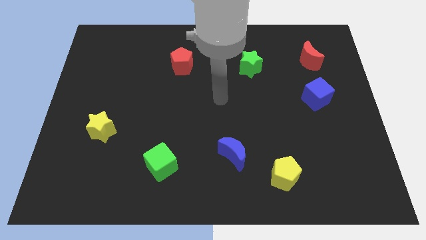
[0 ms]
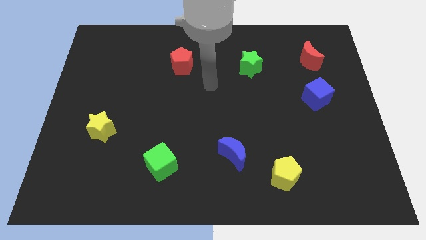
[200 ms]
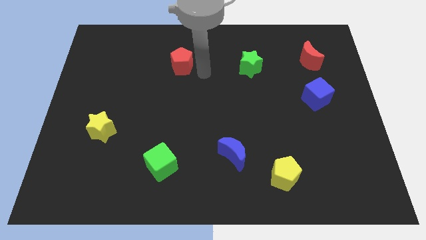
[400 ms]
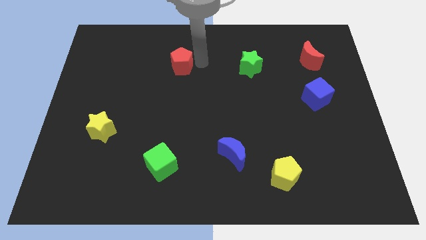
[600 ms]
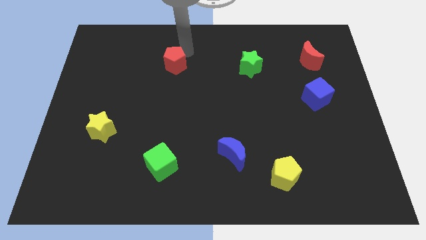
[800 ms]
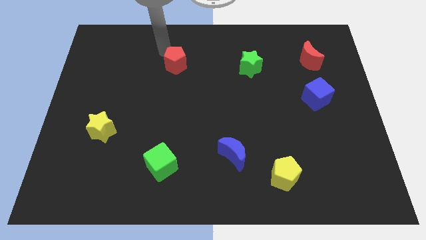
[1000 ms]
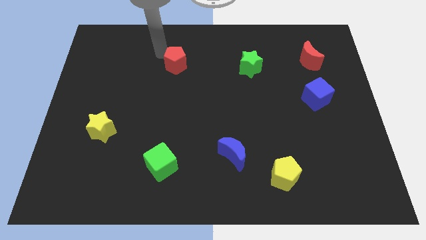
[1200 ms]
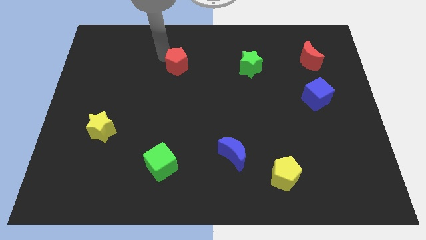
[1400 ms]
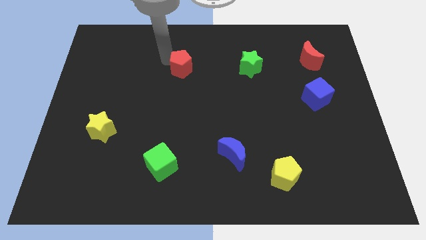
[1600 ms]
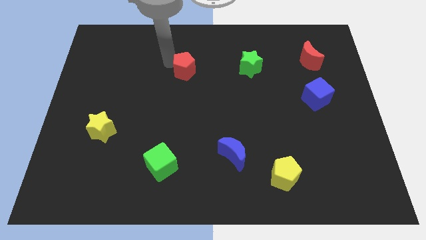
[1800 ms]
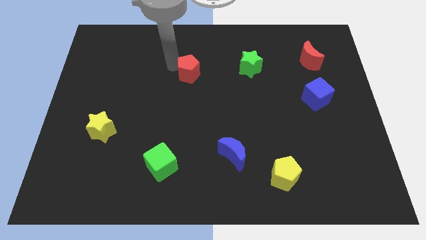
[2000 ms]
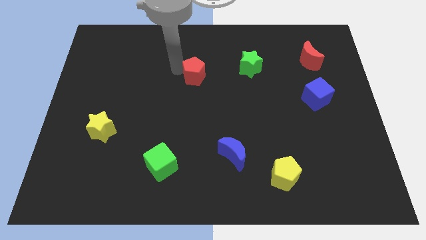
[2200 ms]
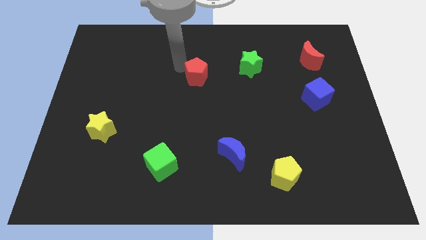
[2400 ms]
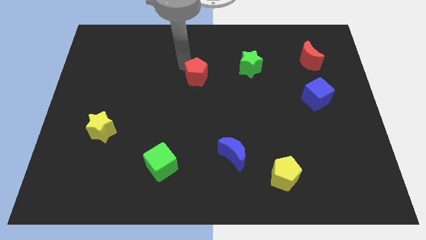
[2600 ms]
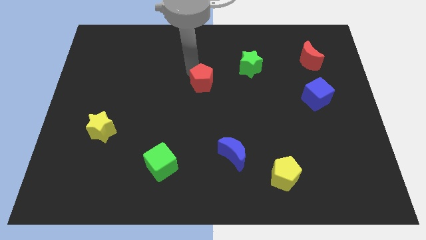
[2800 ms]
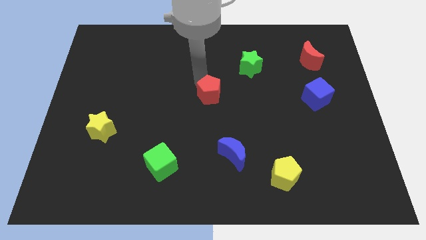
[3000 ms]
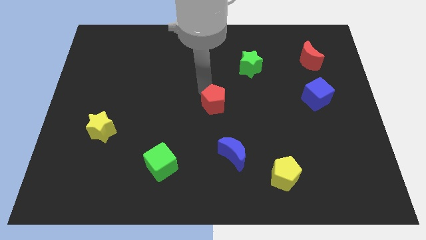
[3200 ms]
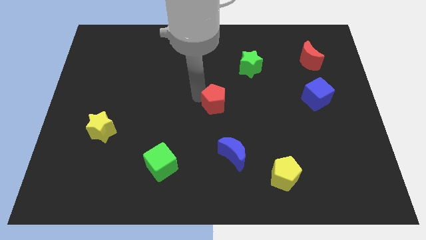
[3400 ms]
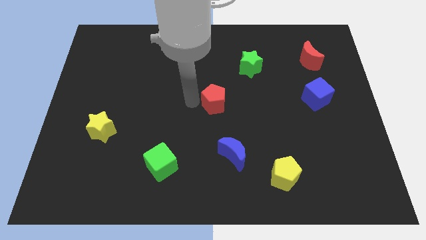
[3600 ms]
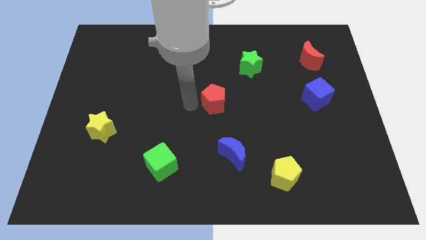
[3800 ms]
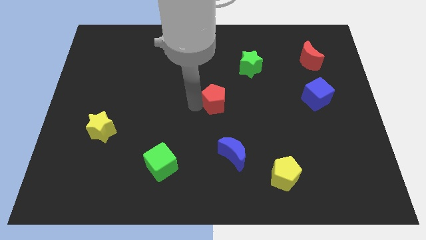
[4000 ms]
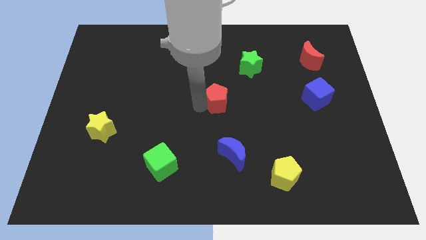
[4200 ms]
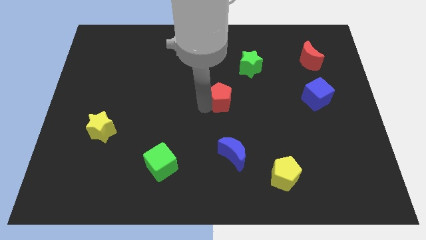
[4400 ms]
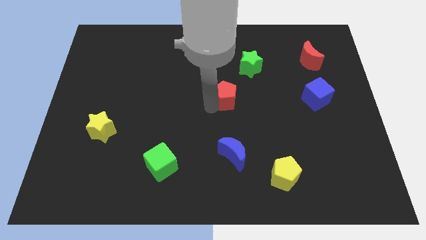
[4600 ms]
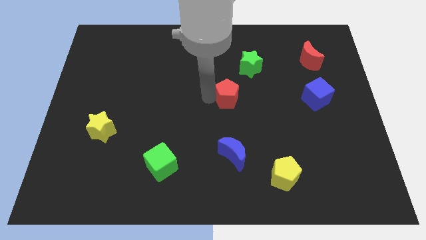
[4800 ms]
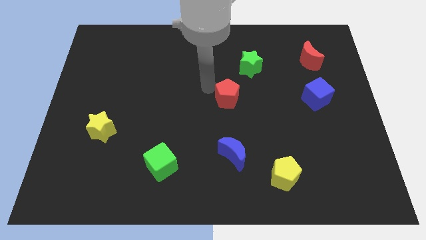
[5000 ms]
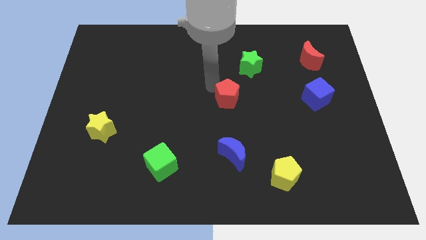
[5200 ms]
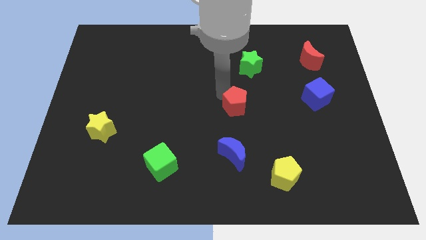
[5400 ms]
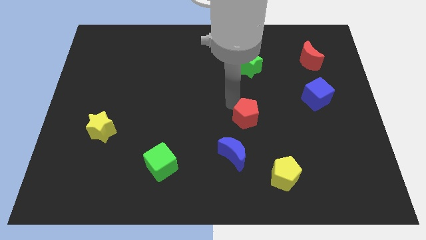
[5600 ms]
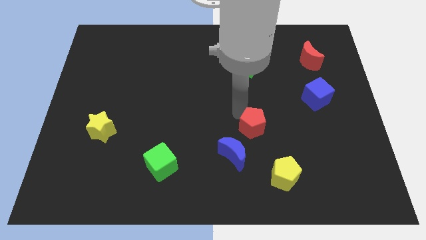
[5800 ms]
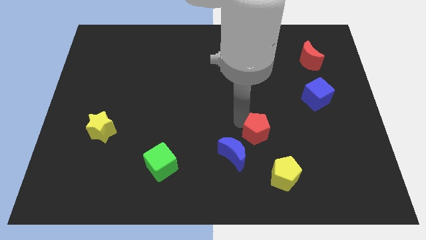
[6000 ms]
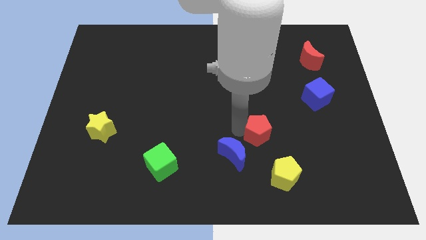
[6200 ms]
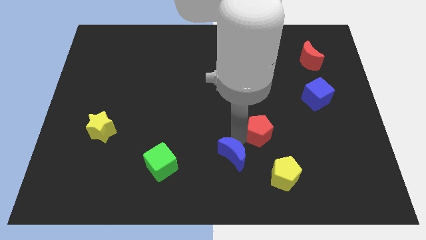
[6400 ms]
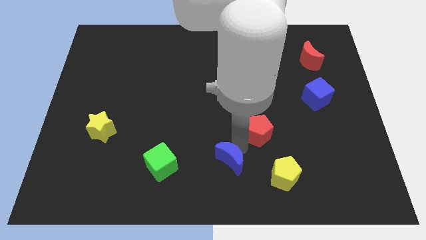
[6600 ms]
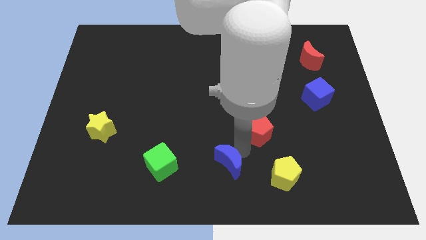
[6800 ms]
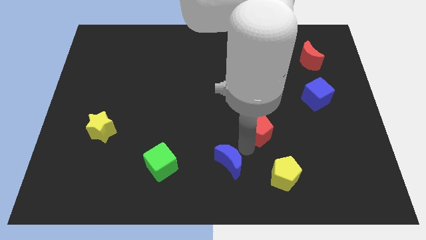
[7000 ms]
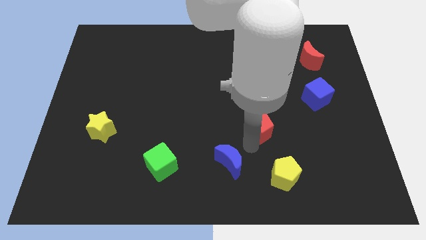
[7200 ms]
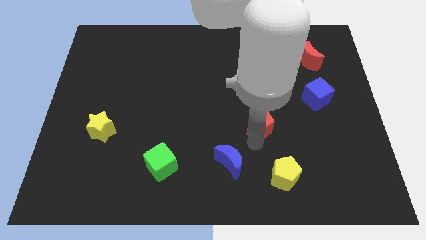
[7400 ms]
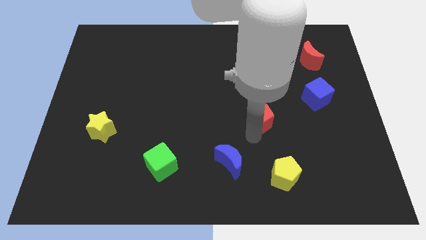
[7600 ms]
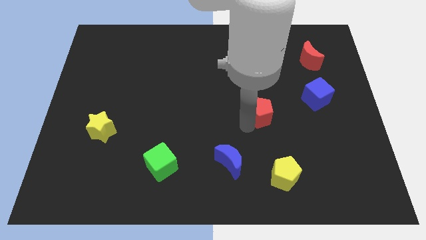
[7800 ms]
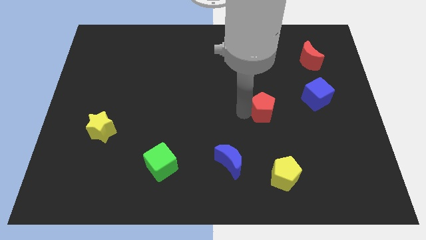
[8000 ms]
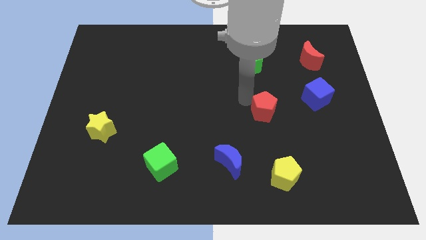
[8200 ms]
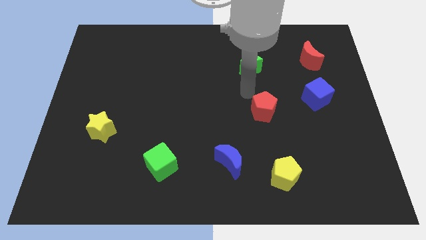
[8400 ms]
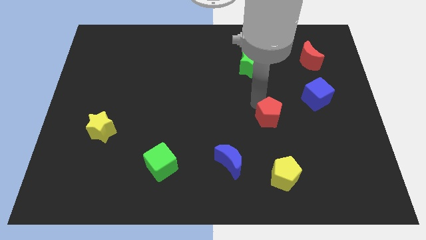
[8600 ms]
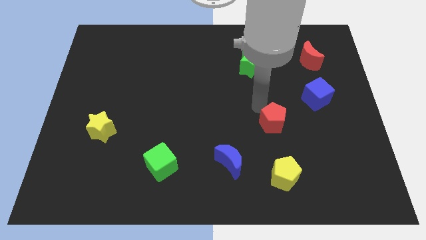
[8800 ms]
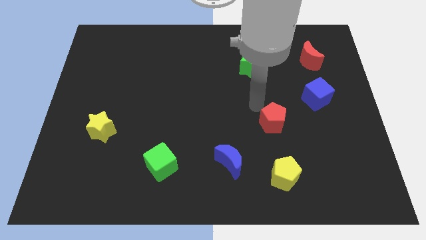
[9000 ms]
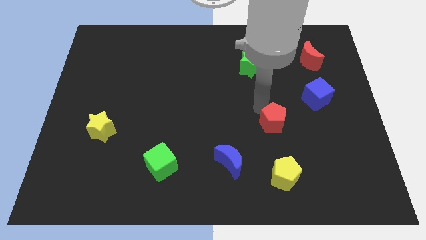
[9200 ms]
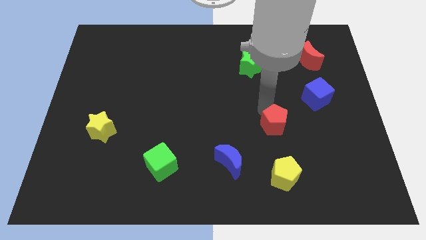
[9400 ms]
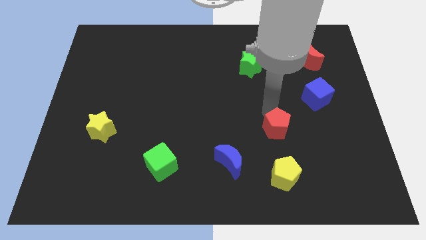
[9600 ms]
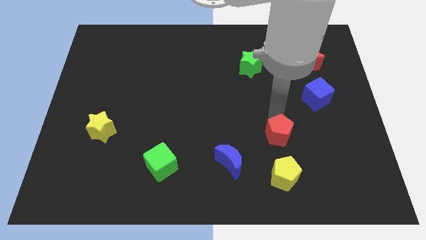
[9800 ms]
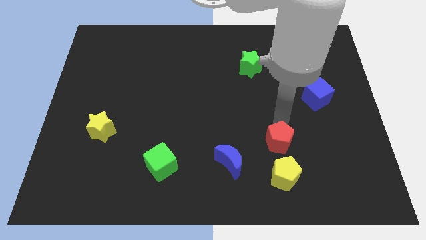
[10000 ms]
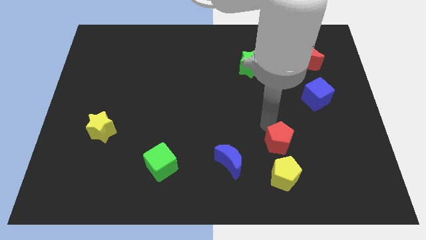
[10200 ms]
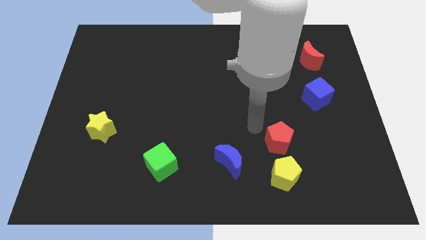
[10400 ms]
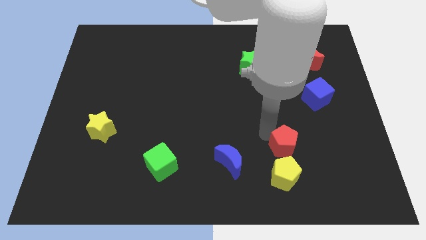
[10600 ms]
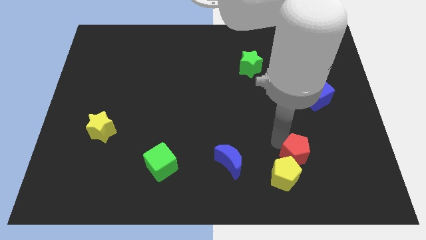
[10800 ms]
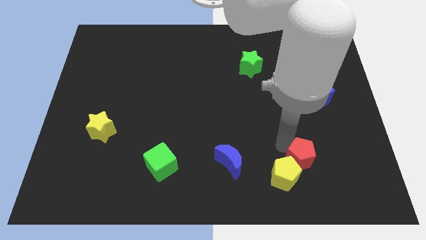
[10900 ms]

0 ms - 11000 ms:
put the red pentagon right of the yellow pentagon

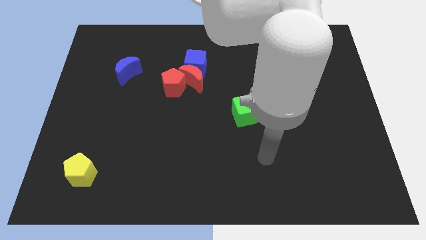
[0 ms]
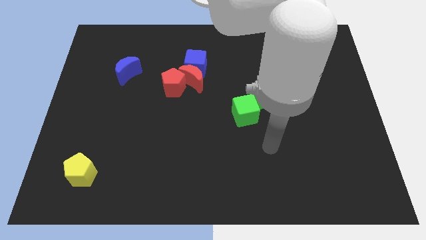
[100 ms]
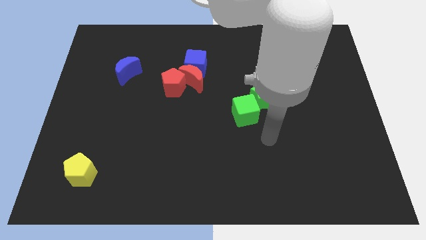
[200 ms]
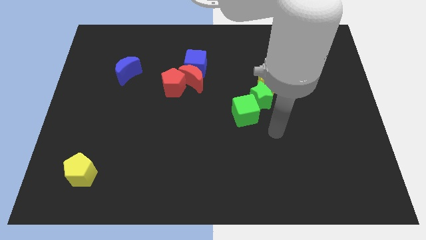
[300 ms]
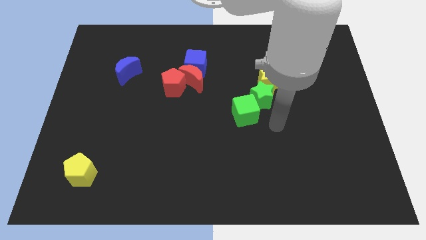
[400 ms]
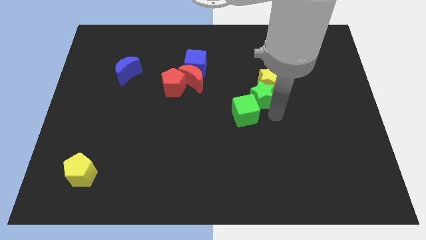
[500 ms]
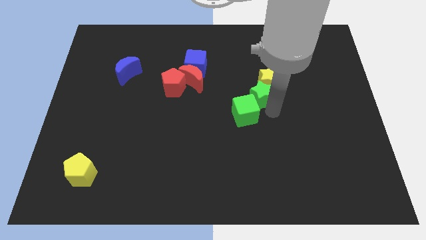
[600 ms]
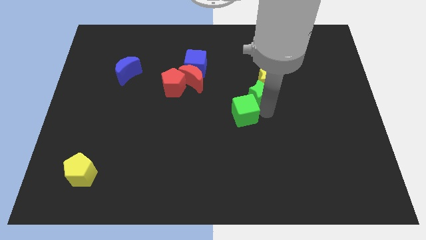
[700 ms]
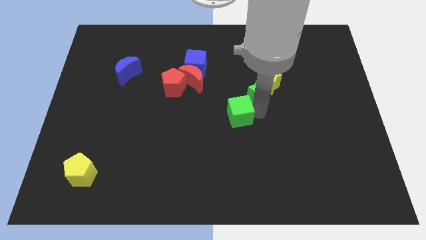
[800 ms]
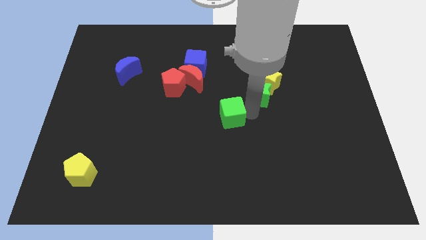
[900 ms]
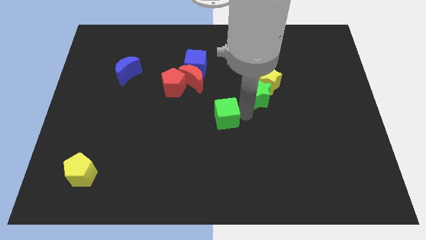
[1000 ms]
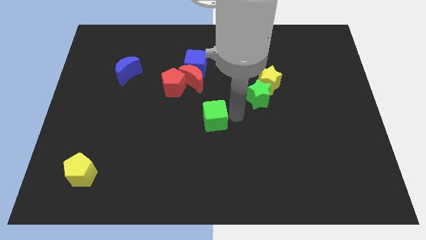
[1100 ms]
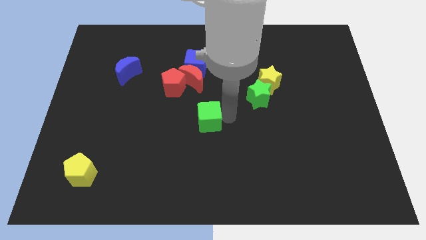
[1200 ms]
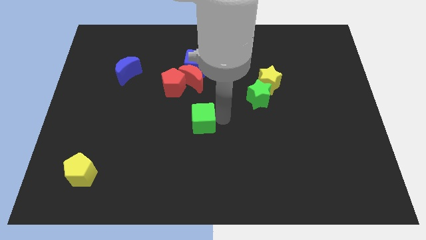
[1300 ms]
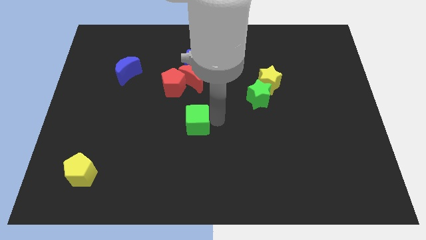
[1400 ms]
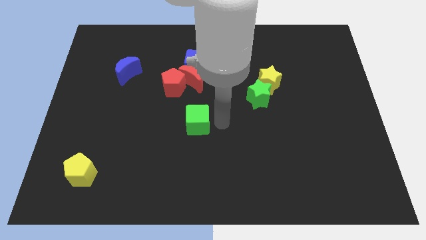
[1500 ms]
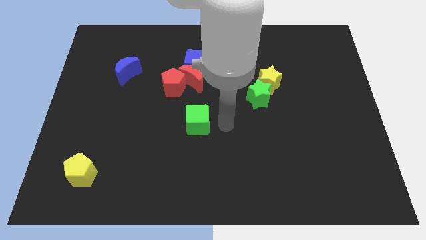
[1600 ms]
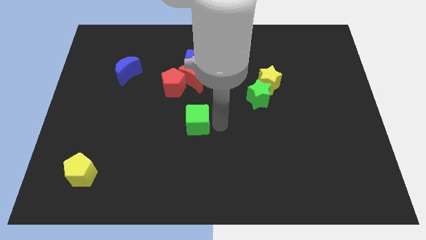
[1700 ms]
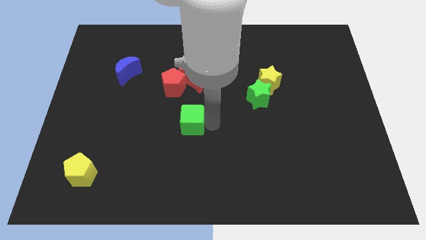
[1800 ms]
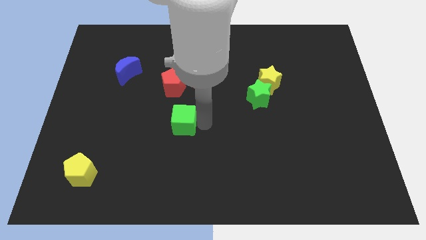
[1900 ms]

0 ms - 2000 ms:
push the green cube below the red pentagon
